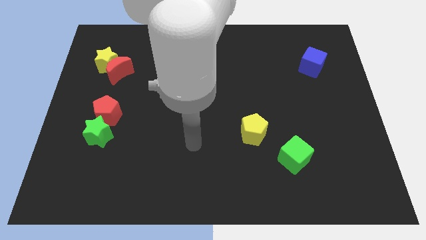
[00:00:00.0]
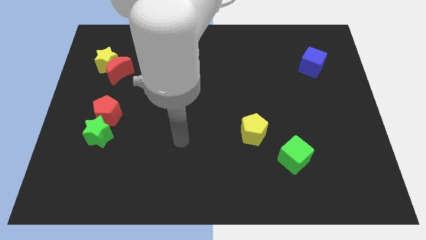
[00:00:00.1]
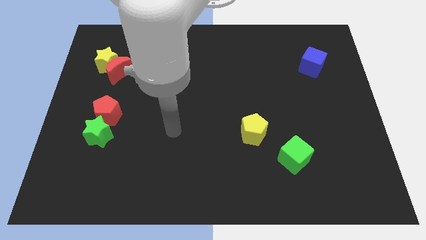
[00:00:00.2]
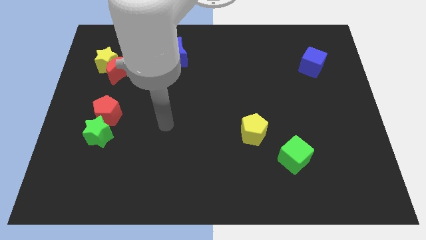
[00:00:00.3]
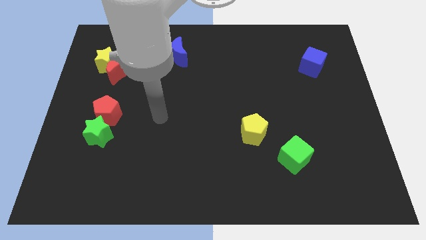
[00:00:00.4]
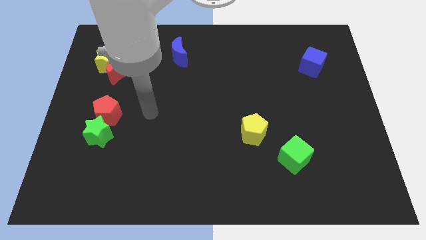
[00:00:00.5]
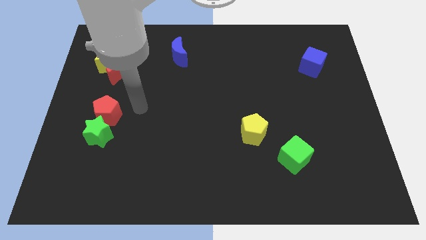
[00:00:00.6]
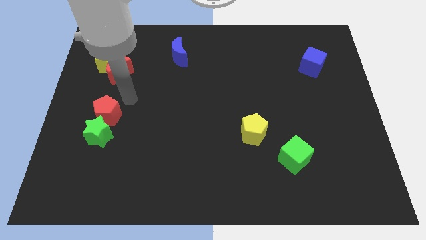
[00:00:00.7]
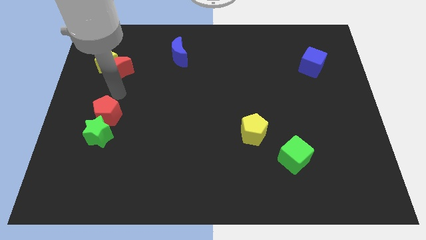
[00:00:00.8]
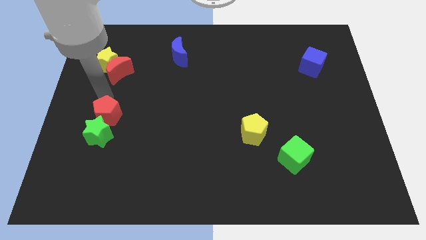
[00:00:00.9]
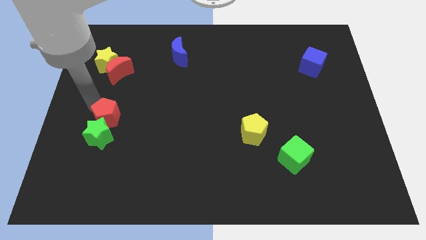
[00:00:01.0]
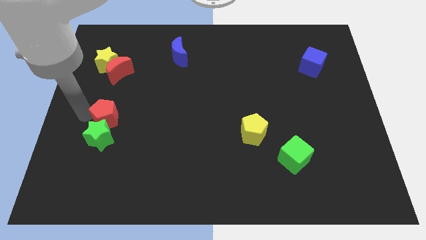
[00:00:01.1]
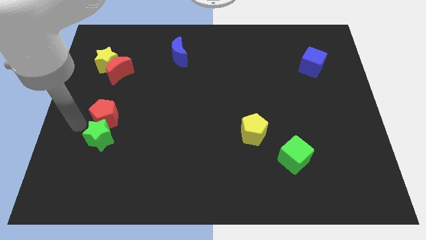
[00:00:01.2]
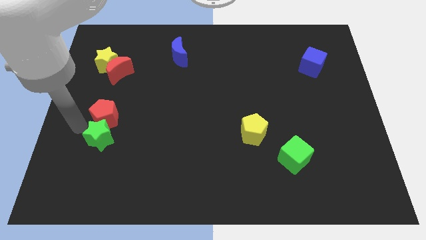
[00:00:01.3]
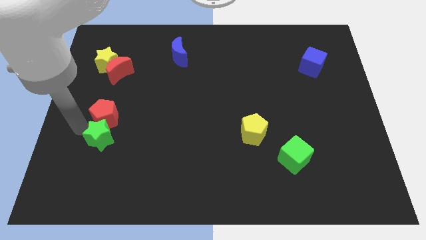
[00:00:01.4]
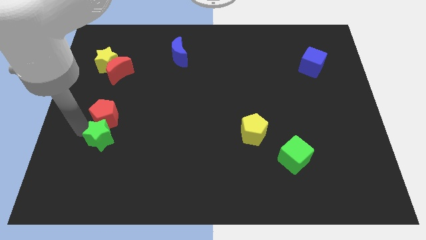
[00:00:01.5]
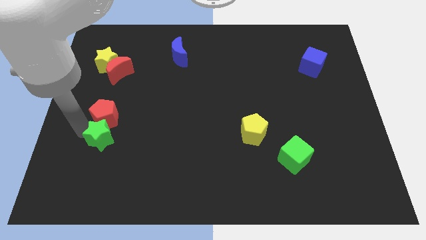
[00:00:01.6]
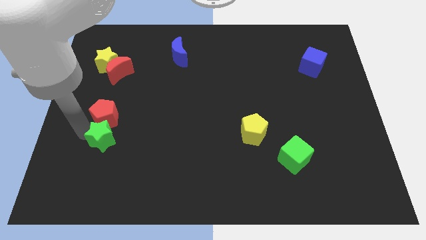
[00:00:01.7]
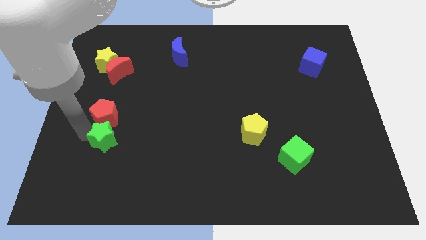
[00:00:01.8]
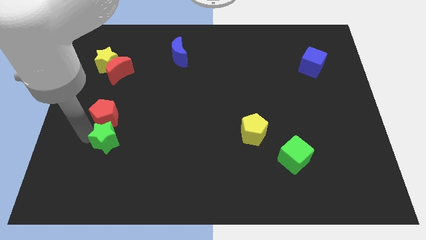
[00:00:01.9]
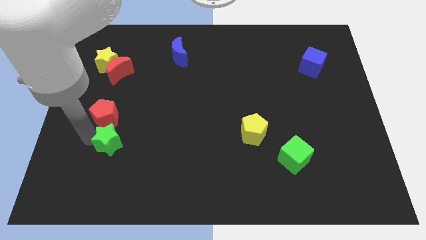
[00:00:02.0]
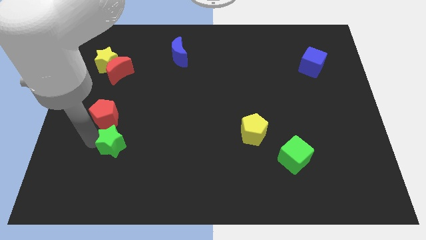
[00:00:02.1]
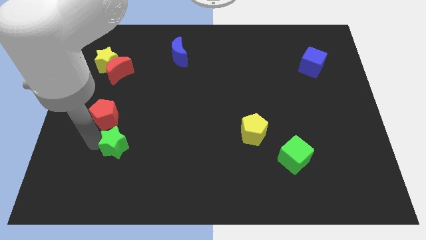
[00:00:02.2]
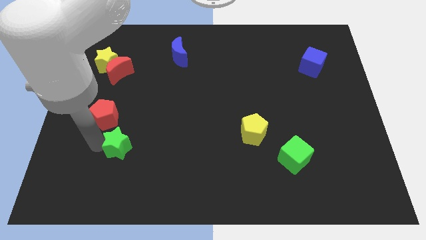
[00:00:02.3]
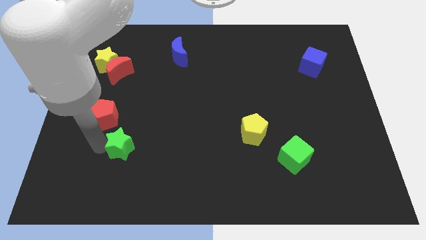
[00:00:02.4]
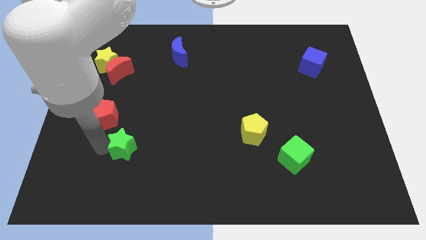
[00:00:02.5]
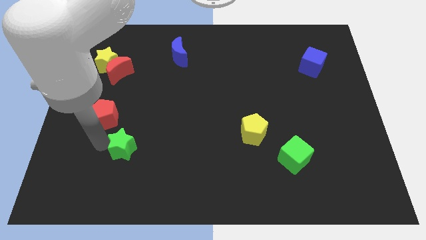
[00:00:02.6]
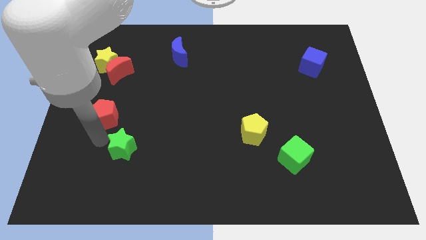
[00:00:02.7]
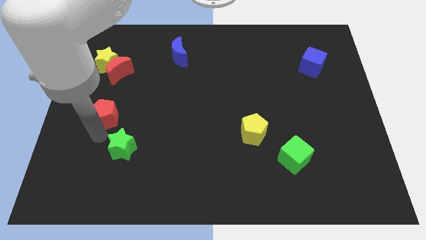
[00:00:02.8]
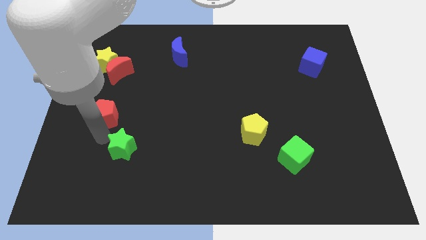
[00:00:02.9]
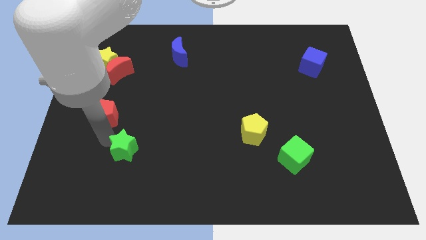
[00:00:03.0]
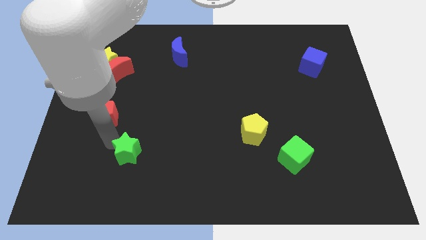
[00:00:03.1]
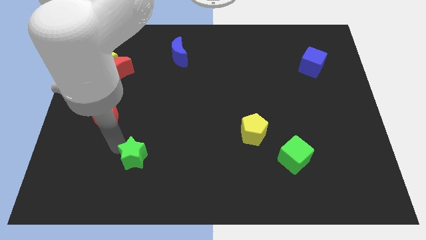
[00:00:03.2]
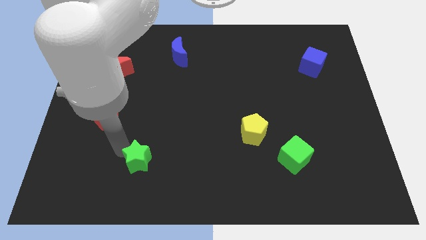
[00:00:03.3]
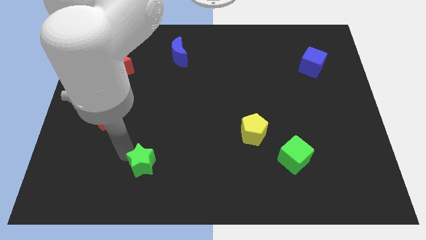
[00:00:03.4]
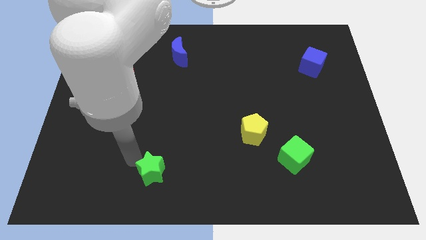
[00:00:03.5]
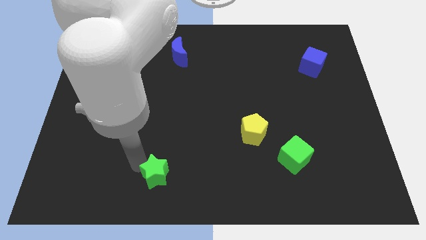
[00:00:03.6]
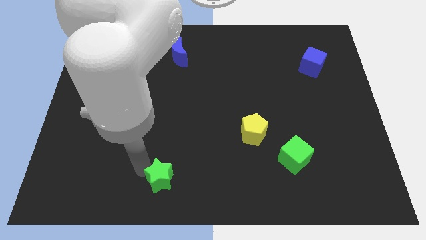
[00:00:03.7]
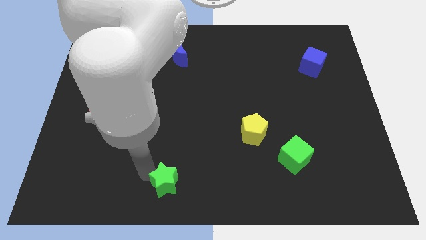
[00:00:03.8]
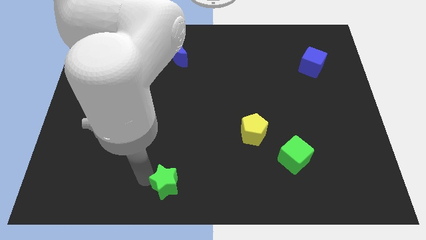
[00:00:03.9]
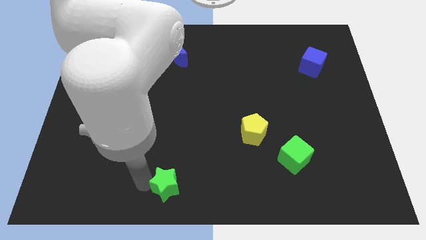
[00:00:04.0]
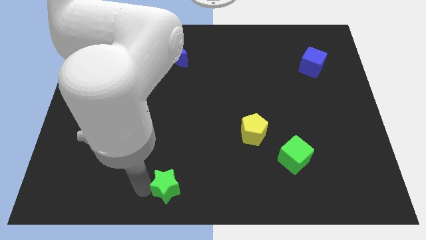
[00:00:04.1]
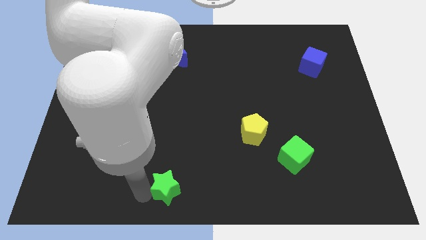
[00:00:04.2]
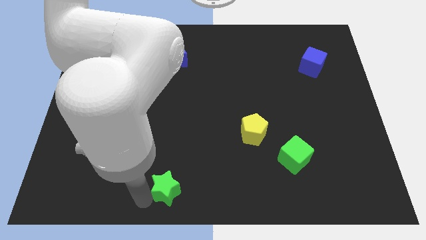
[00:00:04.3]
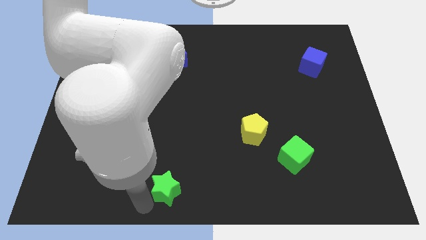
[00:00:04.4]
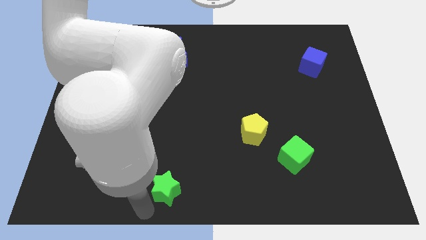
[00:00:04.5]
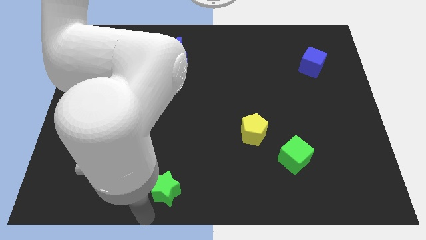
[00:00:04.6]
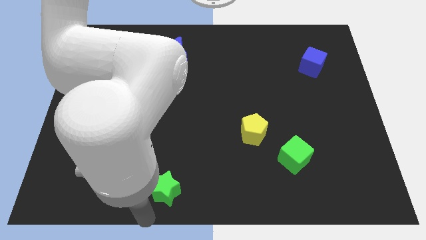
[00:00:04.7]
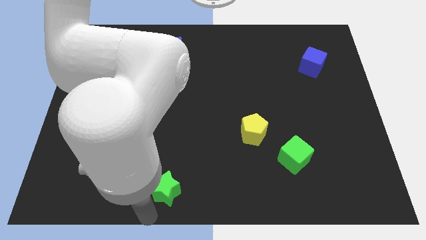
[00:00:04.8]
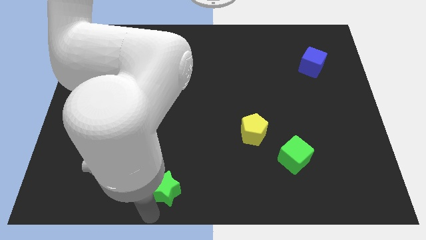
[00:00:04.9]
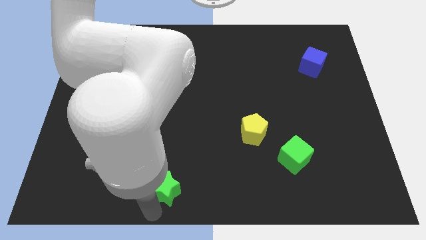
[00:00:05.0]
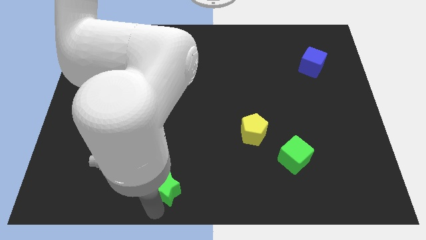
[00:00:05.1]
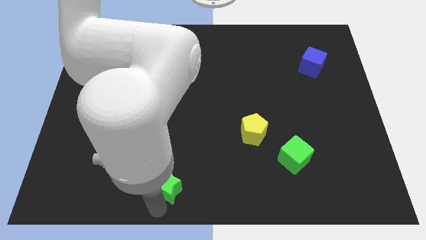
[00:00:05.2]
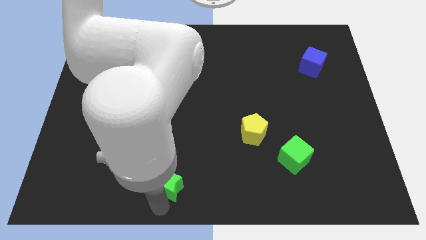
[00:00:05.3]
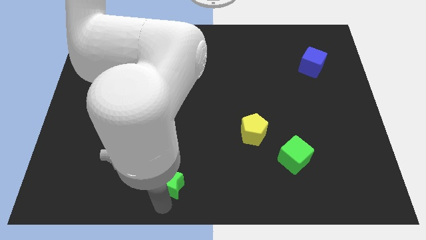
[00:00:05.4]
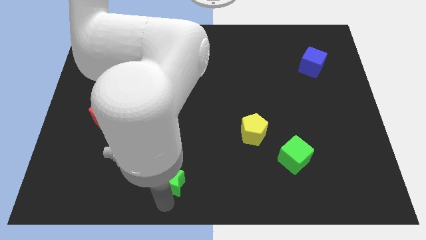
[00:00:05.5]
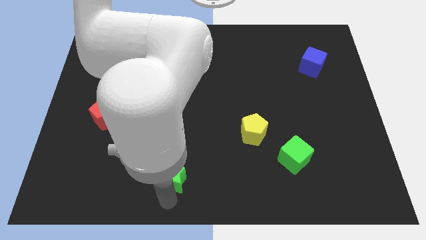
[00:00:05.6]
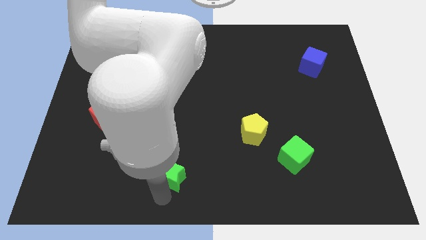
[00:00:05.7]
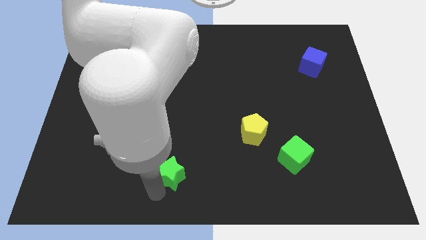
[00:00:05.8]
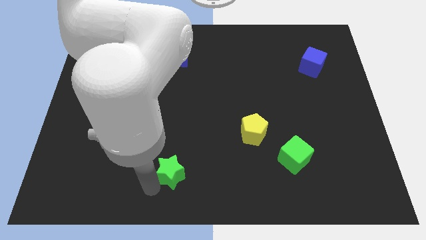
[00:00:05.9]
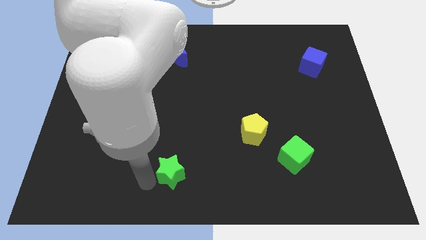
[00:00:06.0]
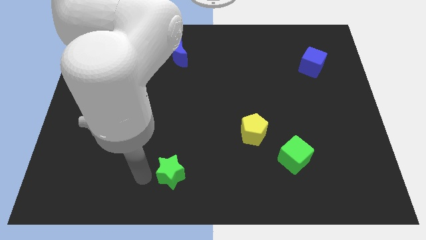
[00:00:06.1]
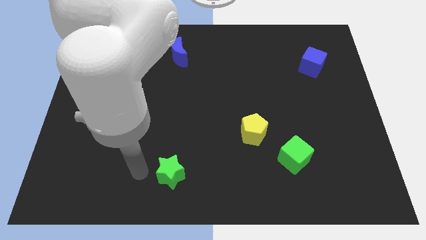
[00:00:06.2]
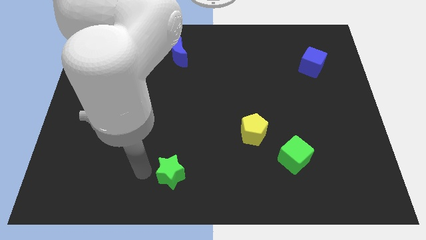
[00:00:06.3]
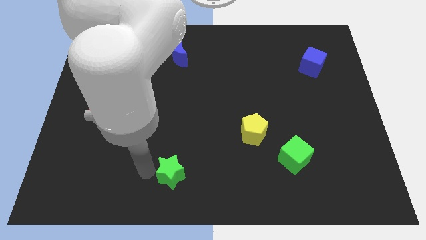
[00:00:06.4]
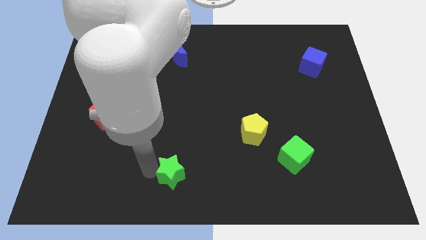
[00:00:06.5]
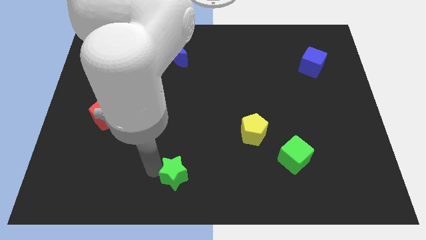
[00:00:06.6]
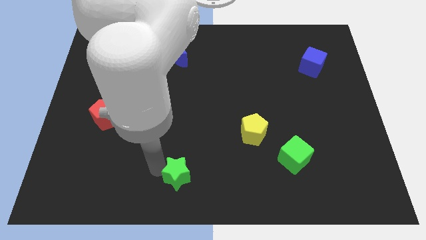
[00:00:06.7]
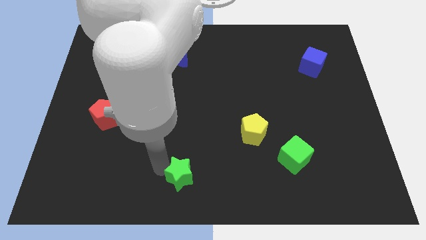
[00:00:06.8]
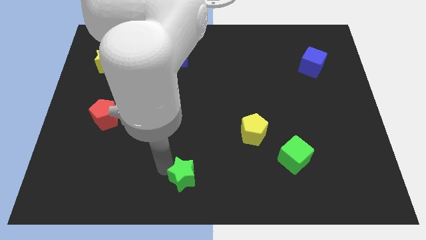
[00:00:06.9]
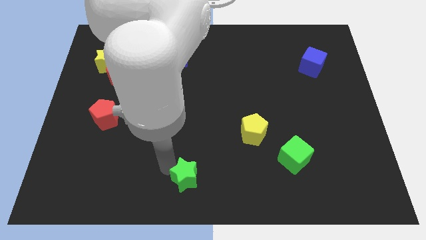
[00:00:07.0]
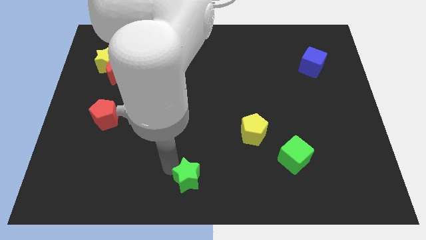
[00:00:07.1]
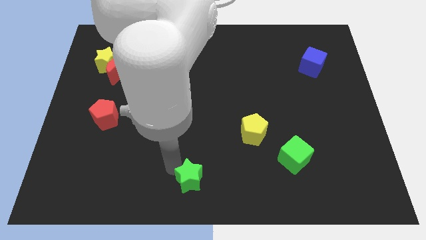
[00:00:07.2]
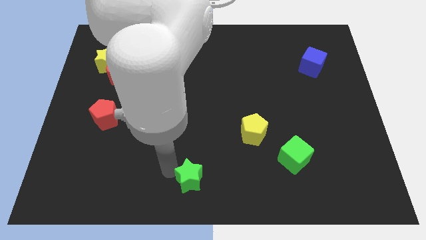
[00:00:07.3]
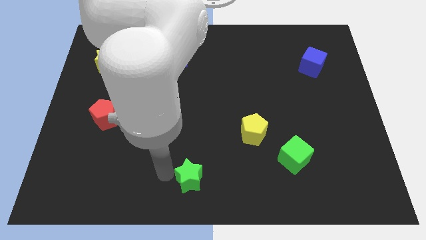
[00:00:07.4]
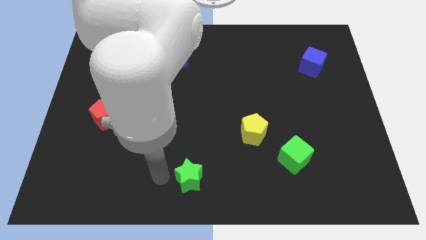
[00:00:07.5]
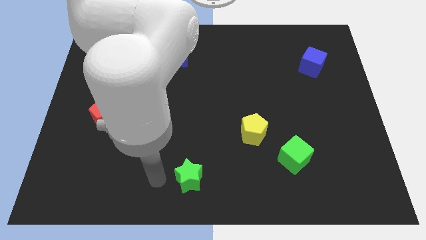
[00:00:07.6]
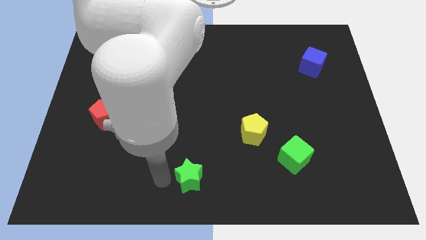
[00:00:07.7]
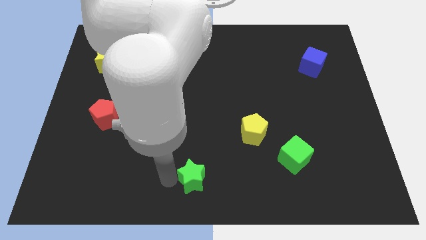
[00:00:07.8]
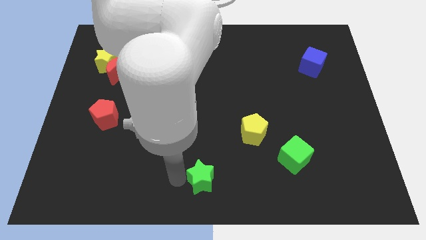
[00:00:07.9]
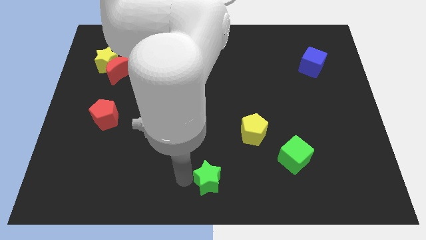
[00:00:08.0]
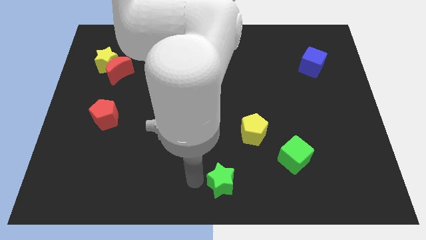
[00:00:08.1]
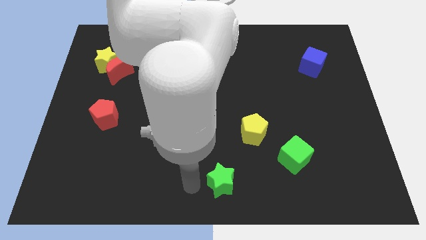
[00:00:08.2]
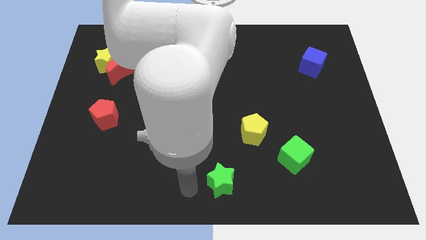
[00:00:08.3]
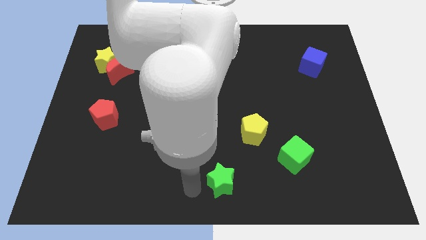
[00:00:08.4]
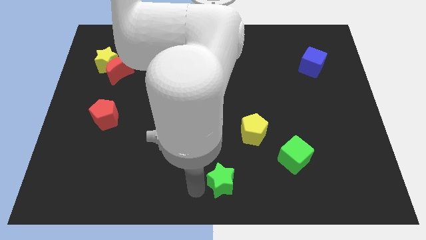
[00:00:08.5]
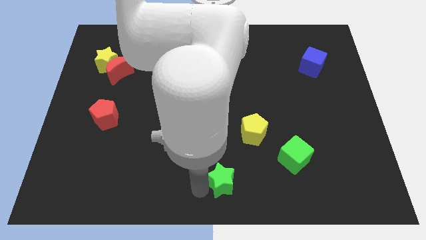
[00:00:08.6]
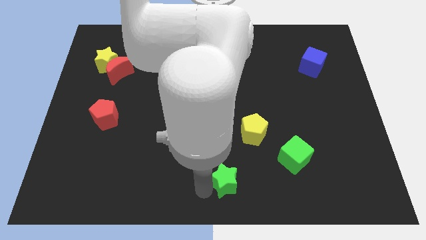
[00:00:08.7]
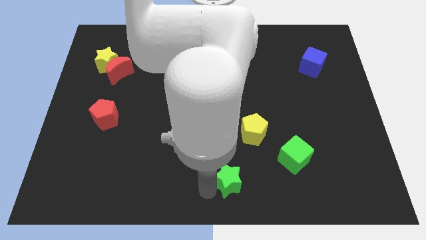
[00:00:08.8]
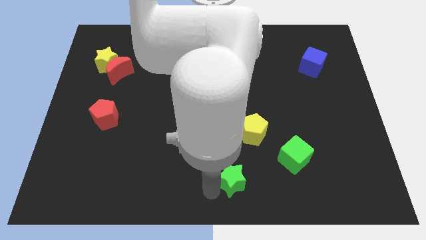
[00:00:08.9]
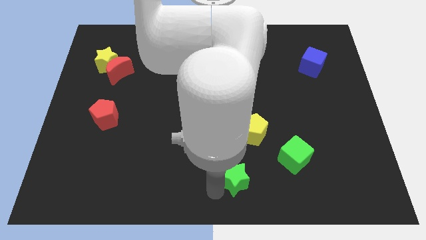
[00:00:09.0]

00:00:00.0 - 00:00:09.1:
put the green star below the yellow pentagon
